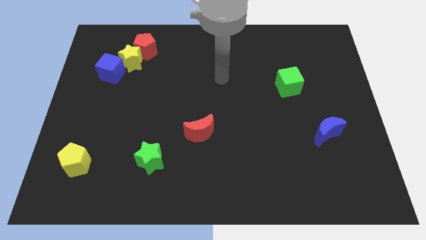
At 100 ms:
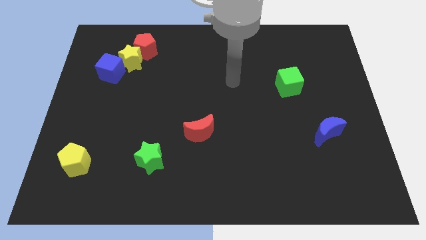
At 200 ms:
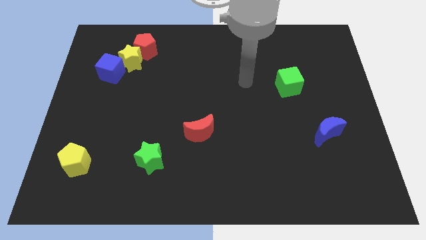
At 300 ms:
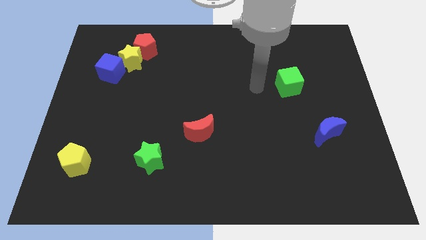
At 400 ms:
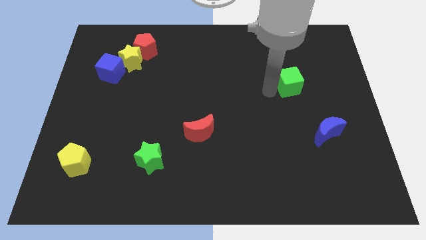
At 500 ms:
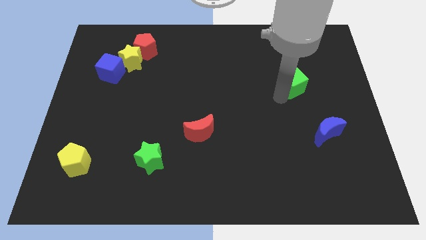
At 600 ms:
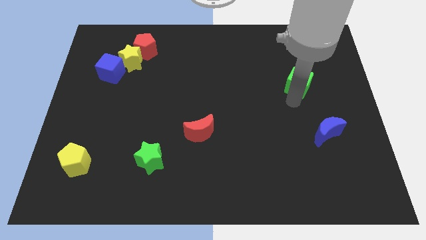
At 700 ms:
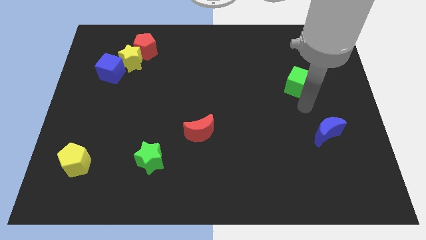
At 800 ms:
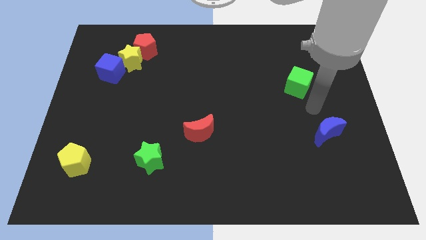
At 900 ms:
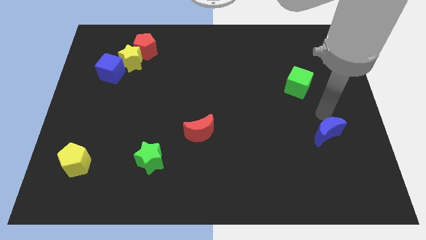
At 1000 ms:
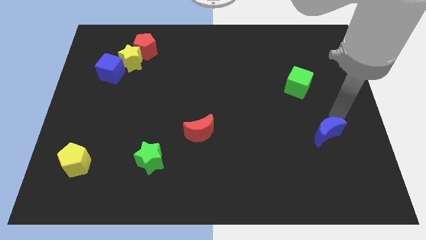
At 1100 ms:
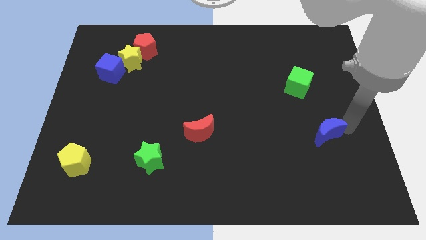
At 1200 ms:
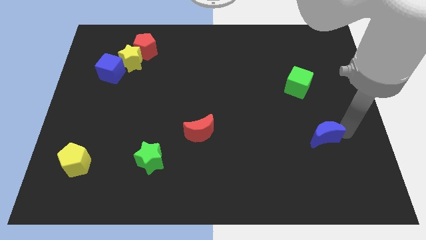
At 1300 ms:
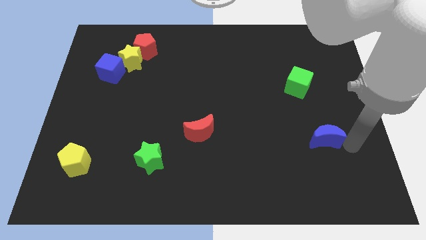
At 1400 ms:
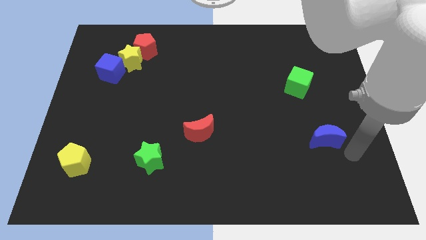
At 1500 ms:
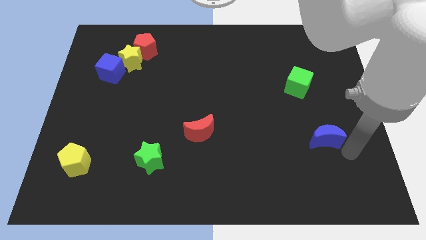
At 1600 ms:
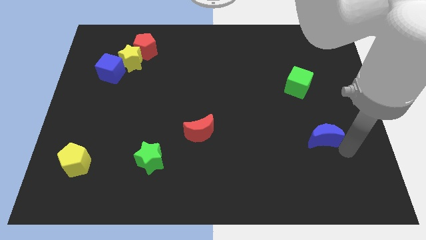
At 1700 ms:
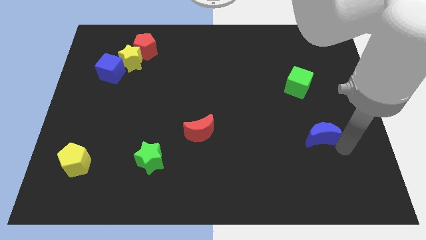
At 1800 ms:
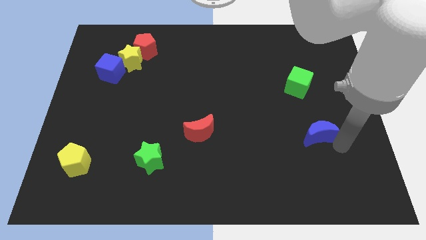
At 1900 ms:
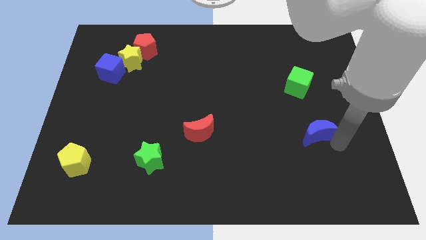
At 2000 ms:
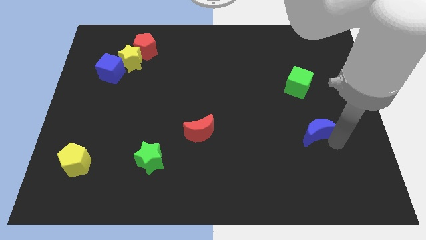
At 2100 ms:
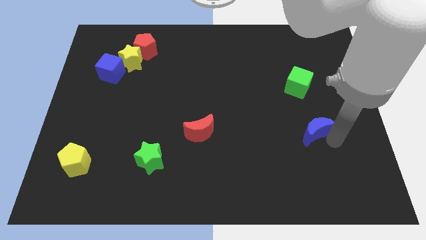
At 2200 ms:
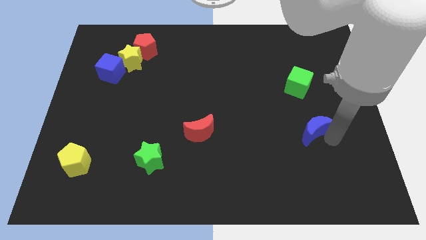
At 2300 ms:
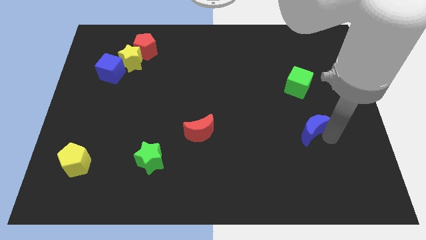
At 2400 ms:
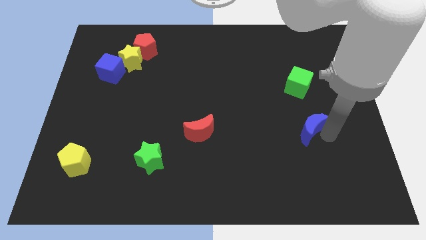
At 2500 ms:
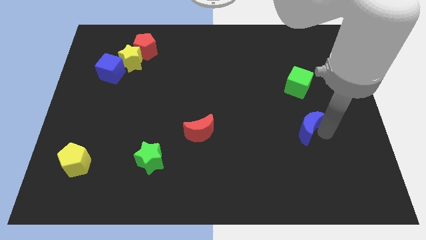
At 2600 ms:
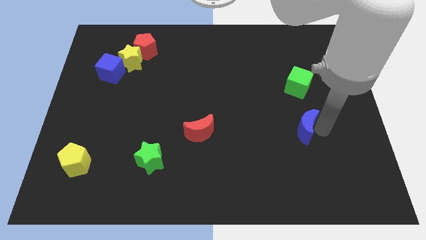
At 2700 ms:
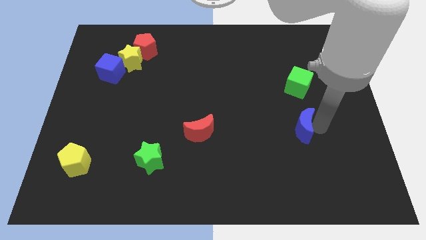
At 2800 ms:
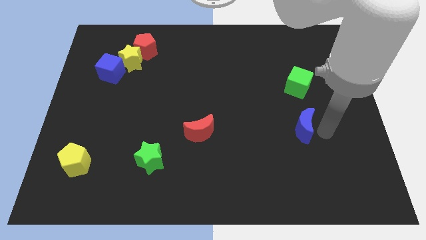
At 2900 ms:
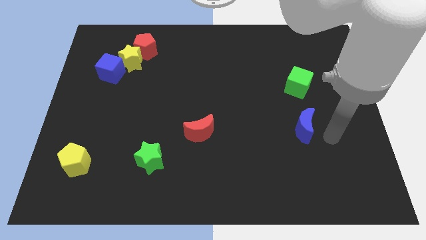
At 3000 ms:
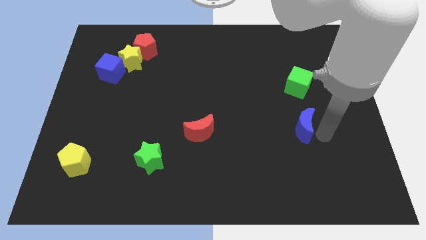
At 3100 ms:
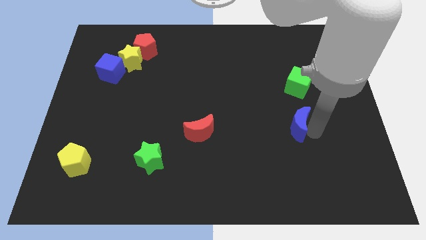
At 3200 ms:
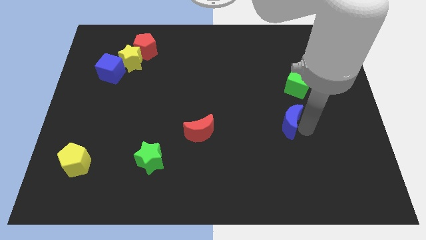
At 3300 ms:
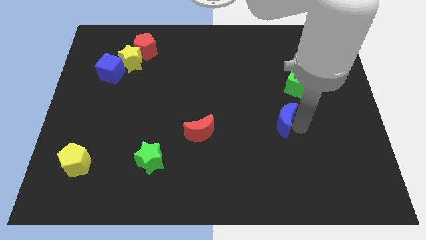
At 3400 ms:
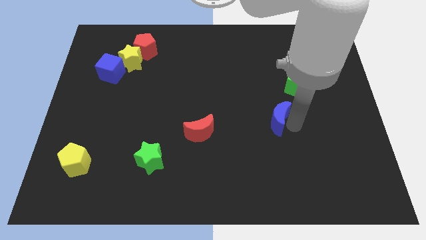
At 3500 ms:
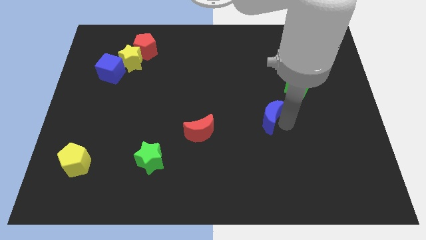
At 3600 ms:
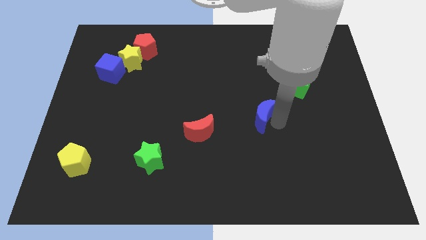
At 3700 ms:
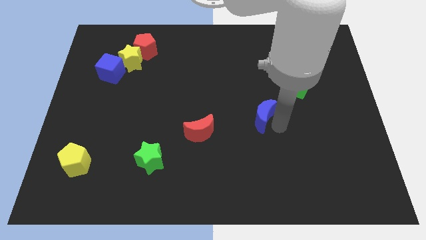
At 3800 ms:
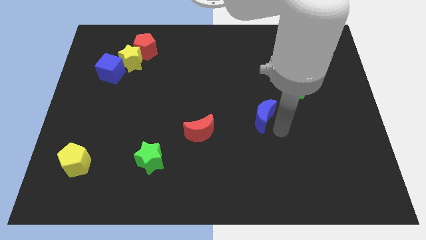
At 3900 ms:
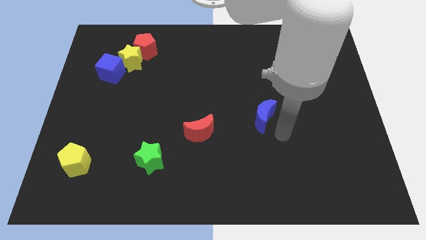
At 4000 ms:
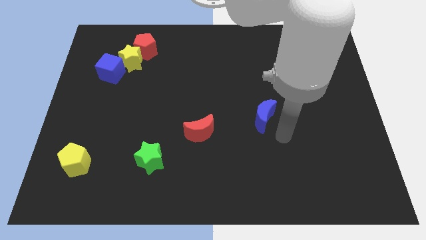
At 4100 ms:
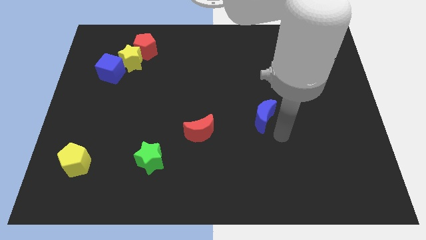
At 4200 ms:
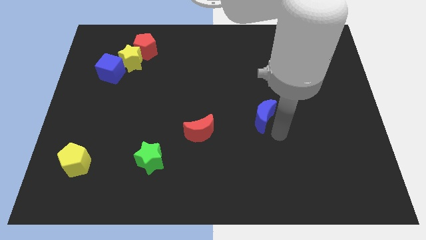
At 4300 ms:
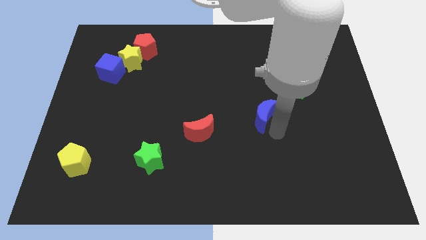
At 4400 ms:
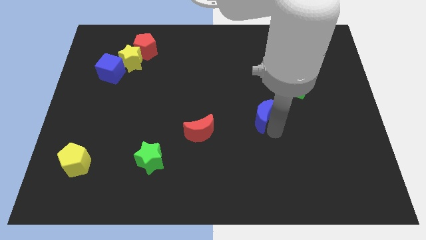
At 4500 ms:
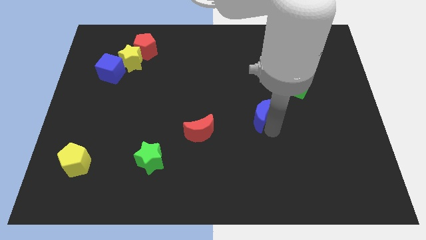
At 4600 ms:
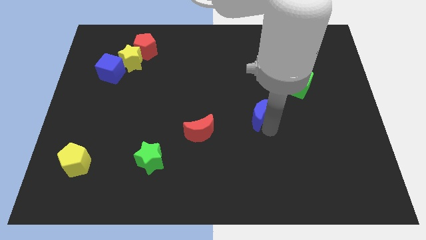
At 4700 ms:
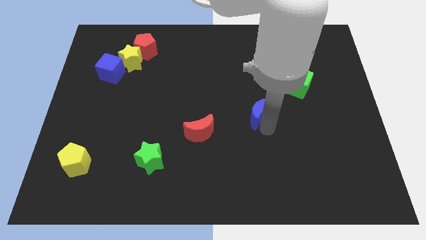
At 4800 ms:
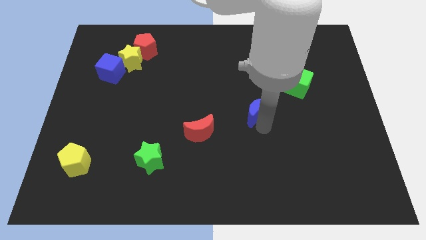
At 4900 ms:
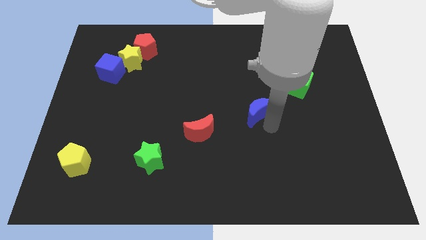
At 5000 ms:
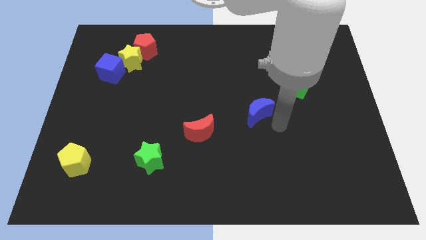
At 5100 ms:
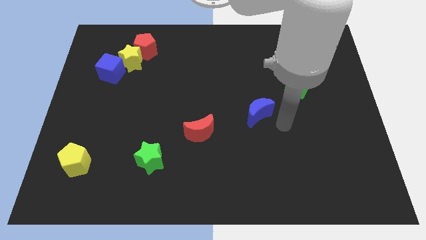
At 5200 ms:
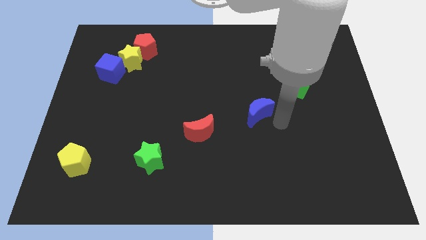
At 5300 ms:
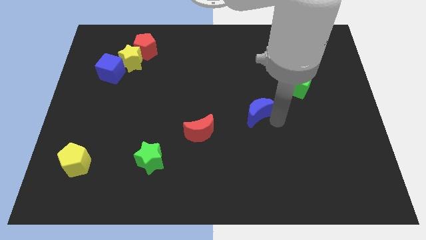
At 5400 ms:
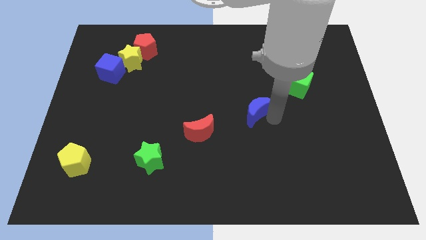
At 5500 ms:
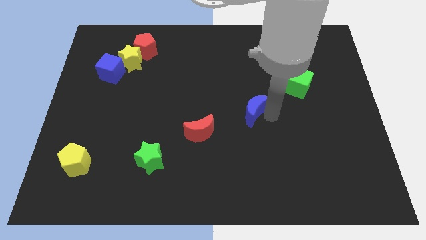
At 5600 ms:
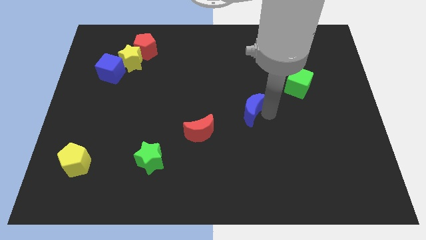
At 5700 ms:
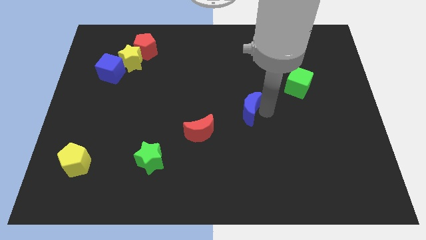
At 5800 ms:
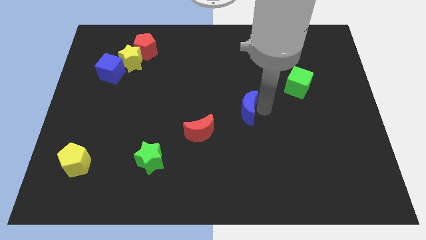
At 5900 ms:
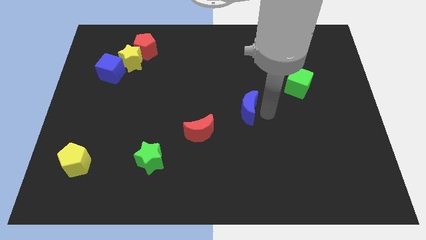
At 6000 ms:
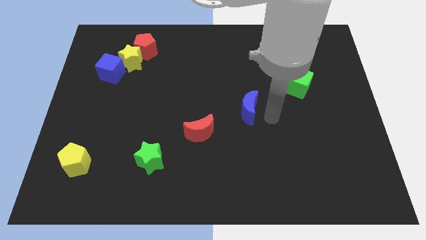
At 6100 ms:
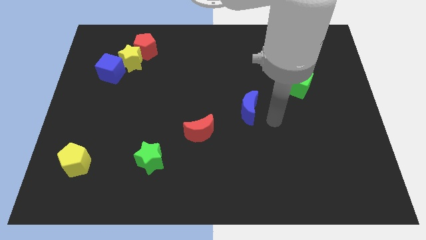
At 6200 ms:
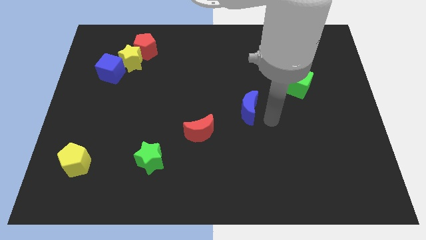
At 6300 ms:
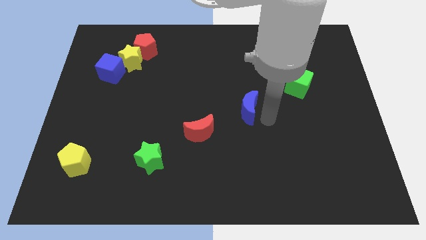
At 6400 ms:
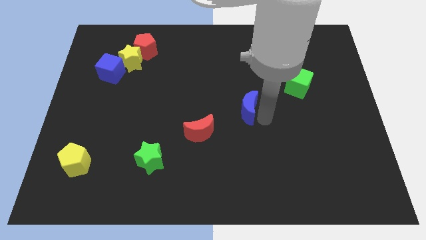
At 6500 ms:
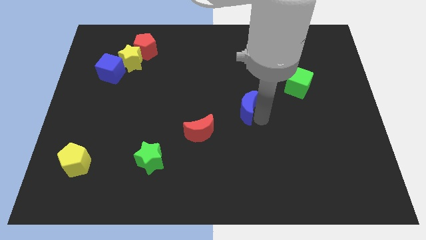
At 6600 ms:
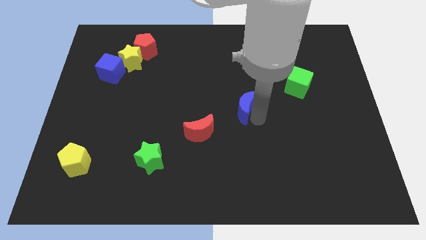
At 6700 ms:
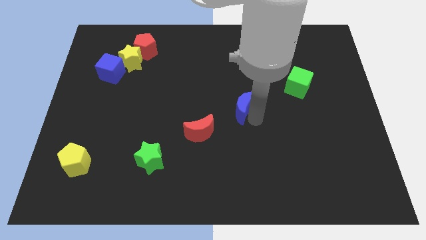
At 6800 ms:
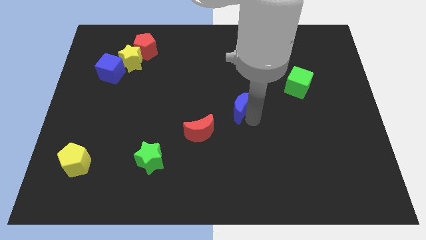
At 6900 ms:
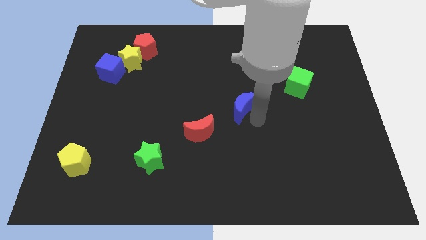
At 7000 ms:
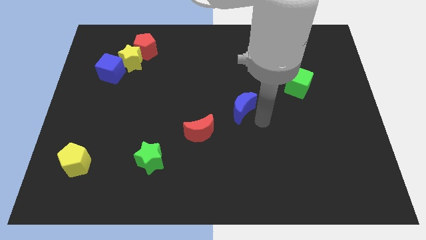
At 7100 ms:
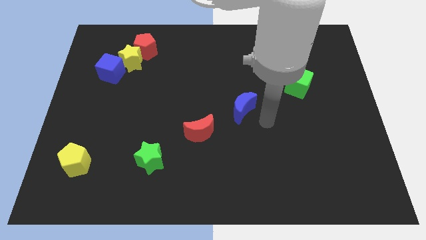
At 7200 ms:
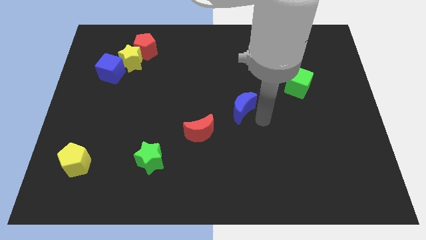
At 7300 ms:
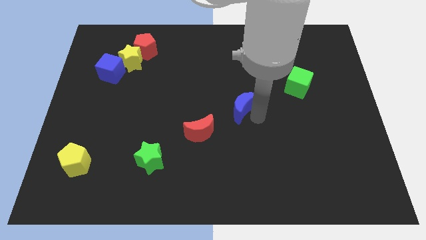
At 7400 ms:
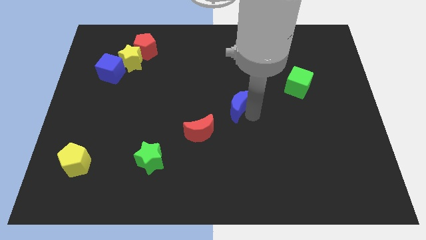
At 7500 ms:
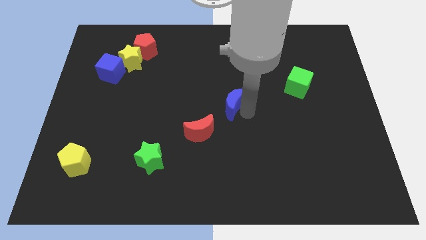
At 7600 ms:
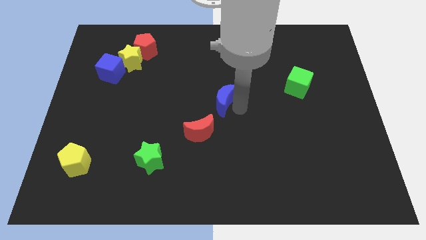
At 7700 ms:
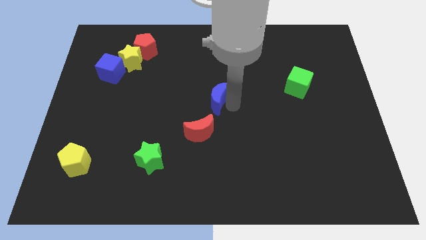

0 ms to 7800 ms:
put the blue moon to the top side of the red moon
